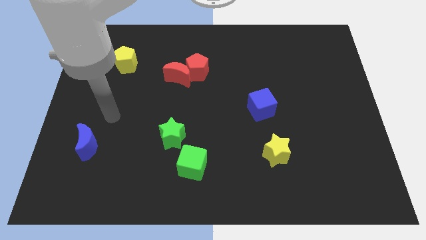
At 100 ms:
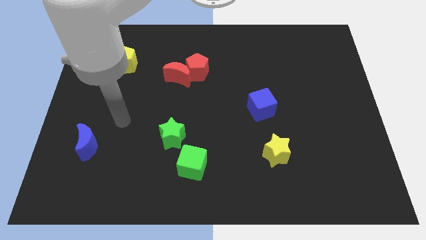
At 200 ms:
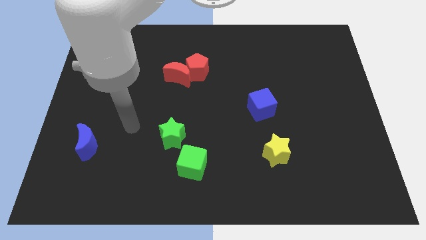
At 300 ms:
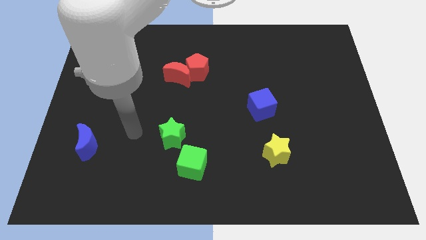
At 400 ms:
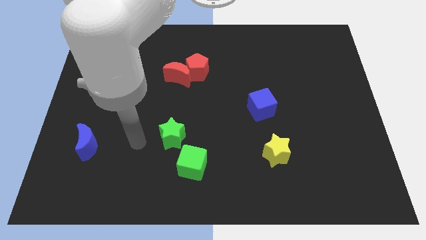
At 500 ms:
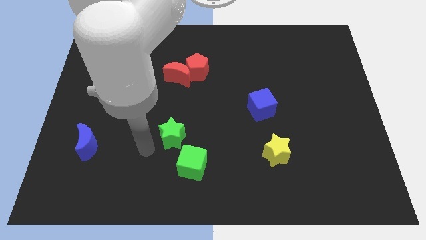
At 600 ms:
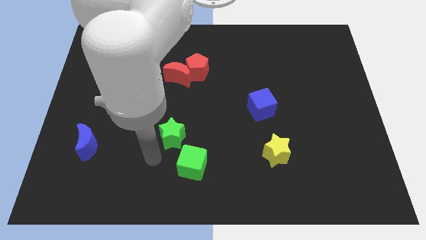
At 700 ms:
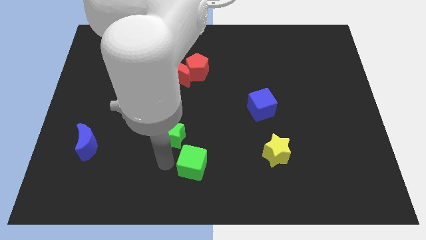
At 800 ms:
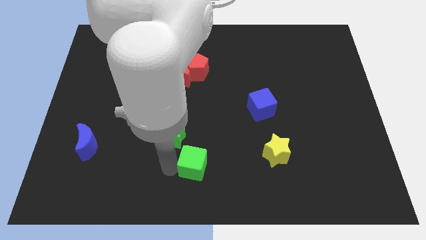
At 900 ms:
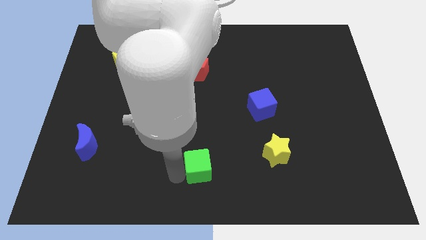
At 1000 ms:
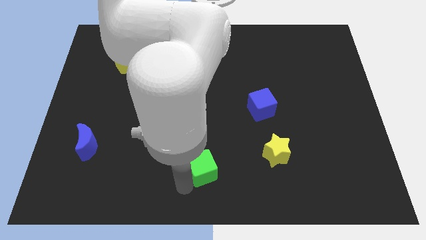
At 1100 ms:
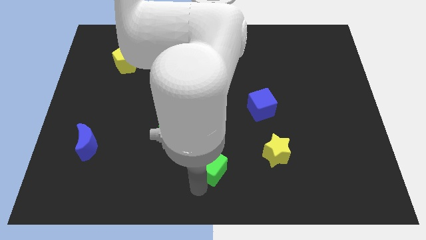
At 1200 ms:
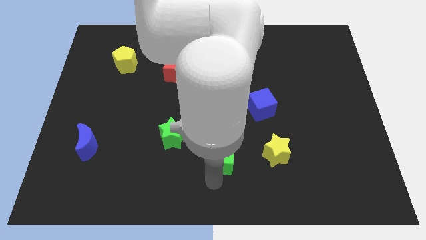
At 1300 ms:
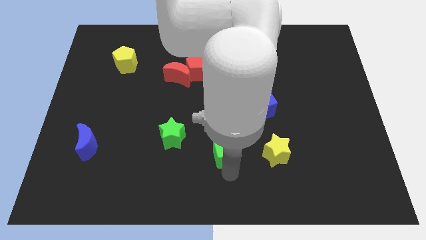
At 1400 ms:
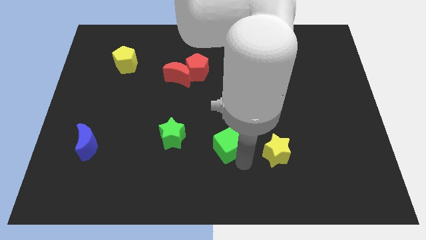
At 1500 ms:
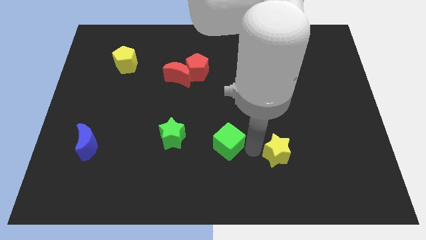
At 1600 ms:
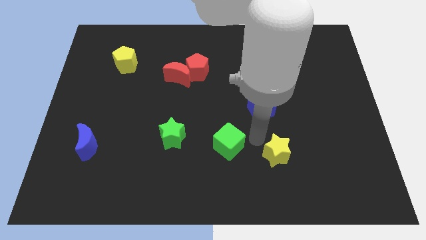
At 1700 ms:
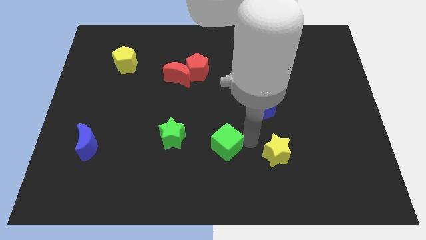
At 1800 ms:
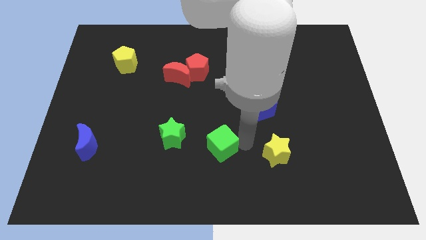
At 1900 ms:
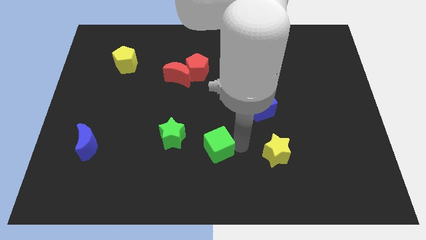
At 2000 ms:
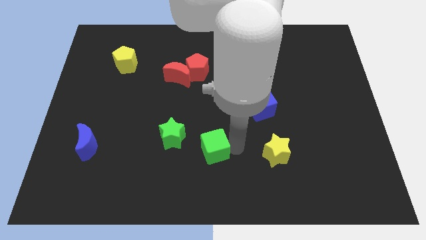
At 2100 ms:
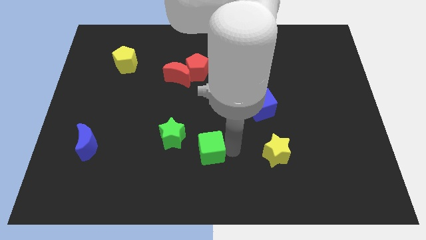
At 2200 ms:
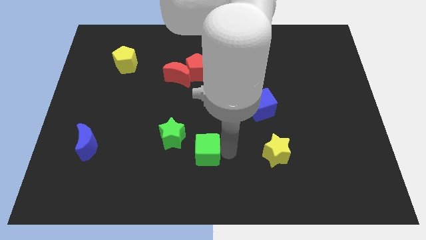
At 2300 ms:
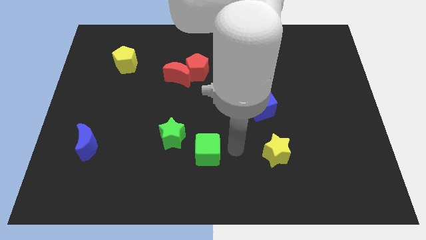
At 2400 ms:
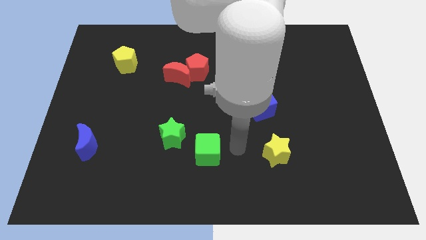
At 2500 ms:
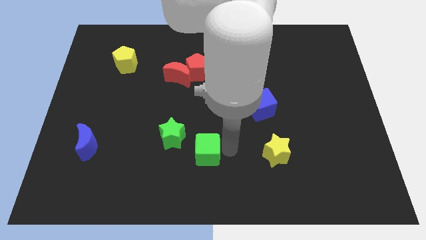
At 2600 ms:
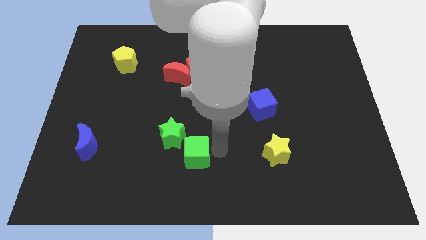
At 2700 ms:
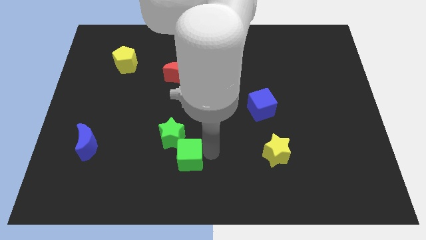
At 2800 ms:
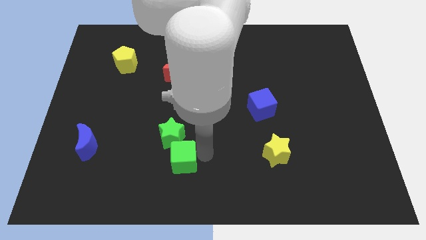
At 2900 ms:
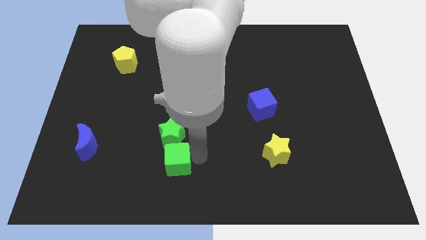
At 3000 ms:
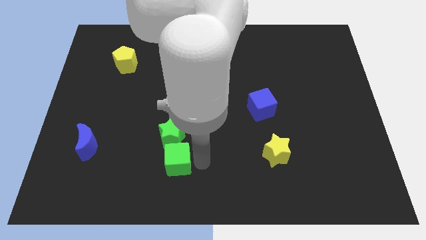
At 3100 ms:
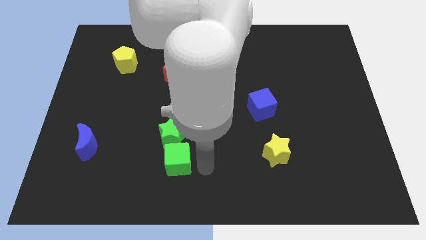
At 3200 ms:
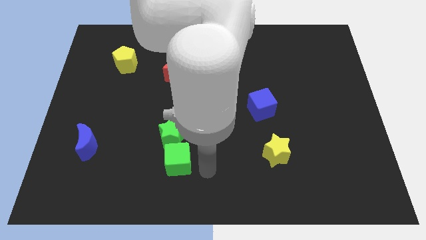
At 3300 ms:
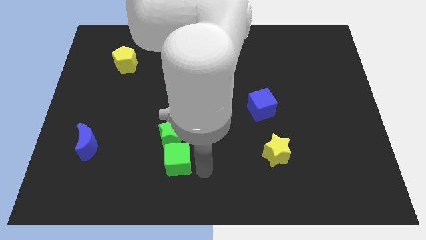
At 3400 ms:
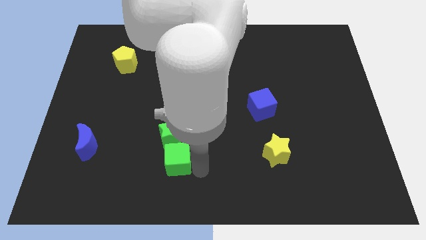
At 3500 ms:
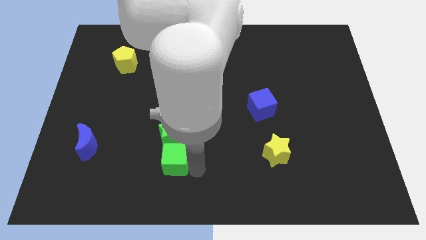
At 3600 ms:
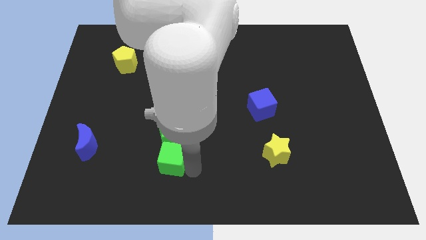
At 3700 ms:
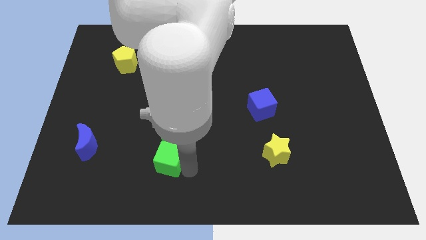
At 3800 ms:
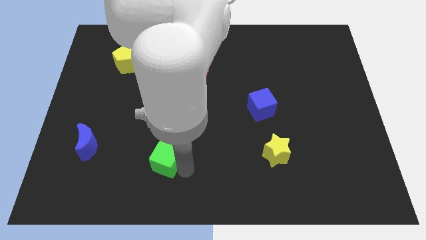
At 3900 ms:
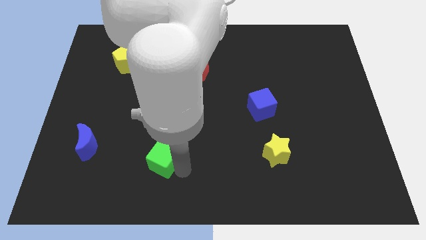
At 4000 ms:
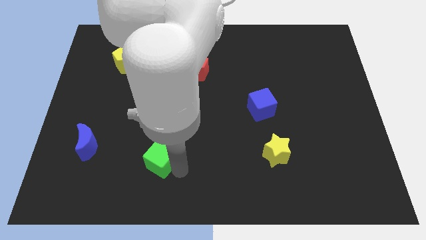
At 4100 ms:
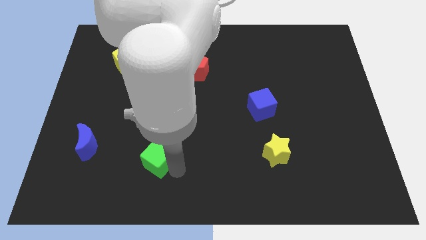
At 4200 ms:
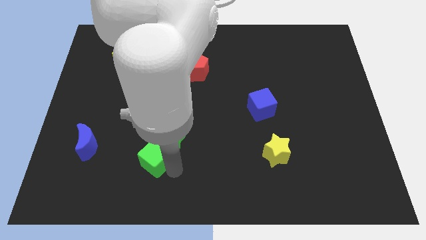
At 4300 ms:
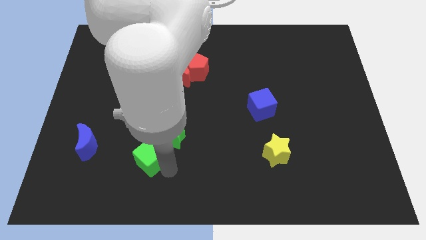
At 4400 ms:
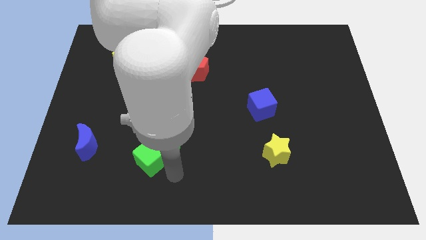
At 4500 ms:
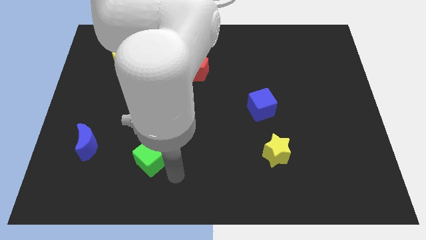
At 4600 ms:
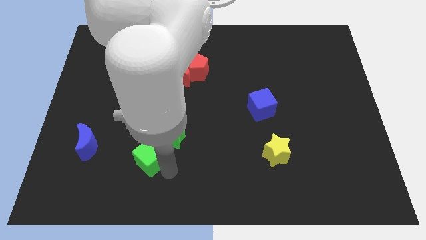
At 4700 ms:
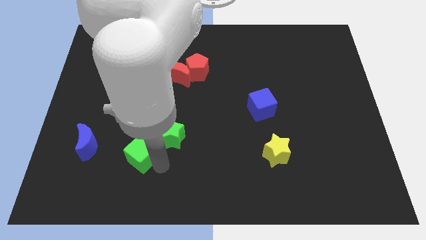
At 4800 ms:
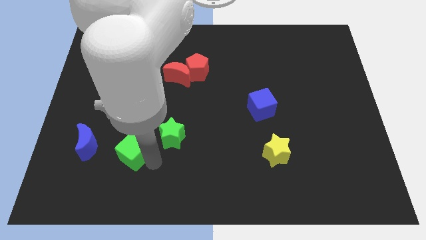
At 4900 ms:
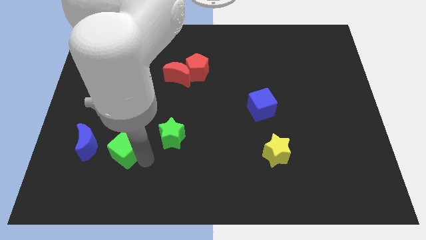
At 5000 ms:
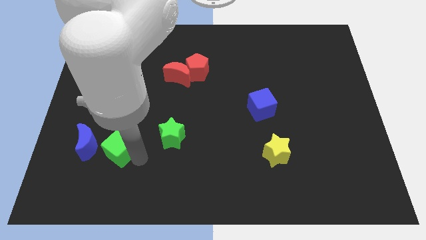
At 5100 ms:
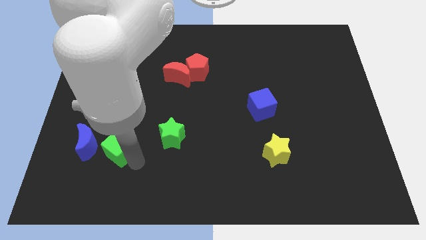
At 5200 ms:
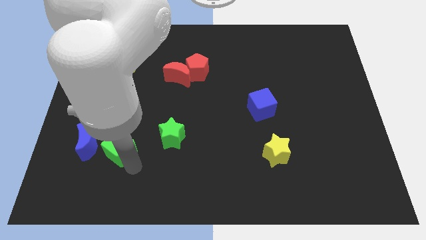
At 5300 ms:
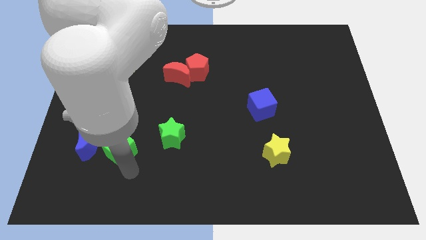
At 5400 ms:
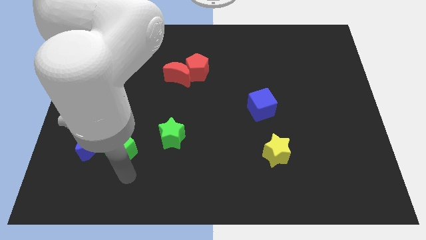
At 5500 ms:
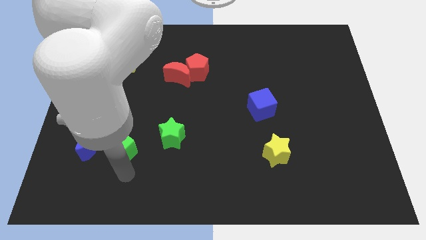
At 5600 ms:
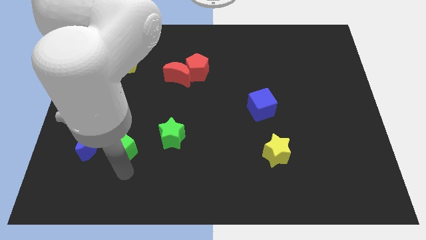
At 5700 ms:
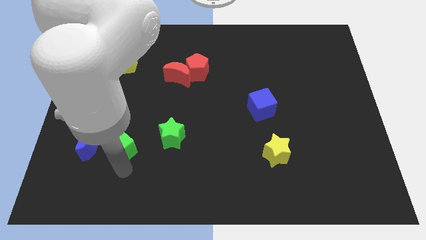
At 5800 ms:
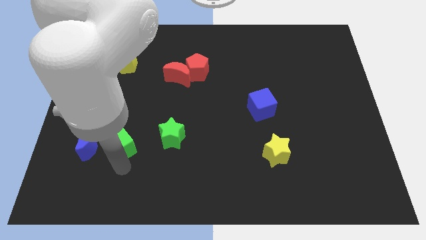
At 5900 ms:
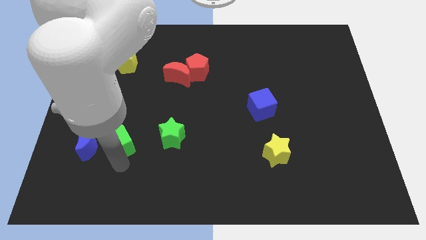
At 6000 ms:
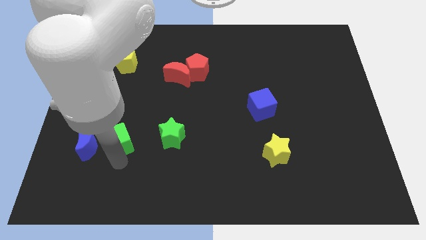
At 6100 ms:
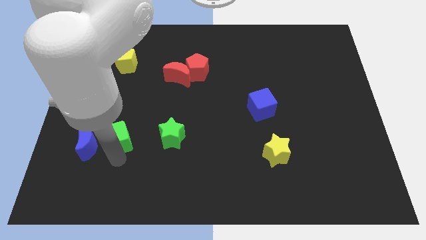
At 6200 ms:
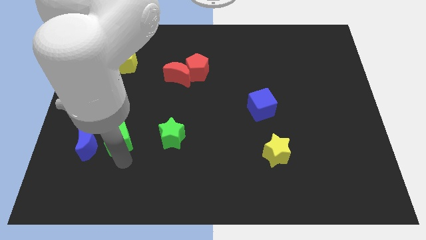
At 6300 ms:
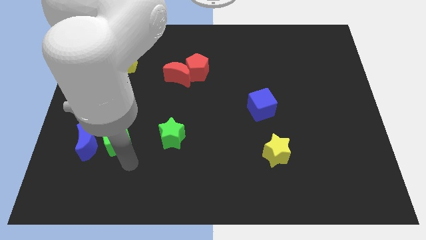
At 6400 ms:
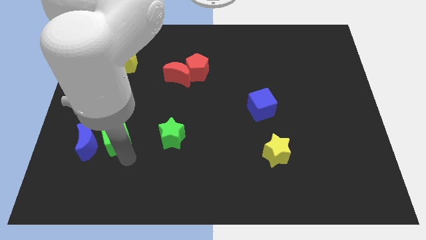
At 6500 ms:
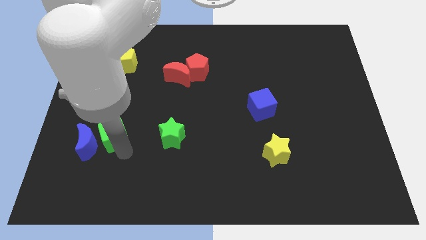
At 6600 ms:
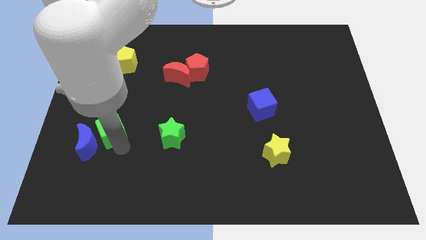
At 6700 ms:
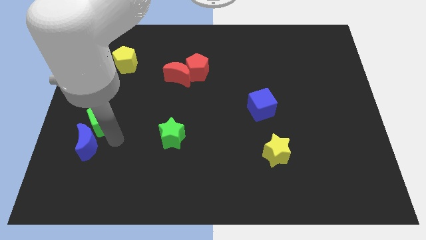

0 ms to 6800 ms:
push the green cube up and to the left

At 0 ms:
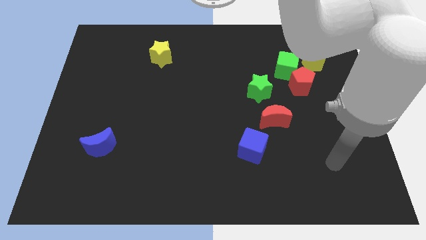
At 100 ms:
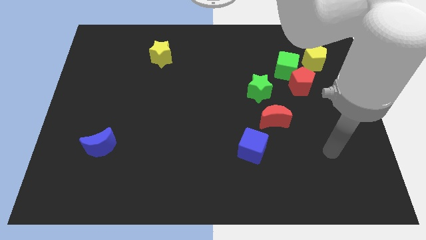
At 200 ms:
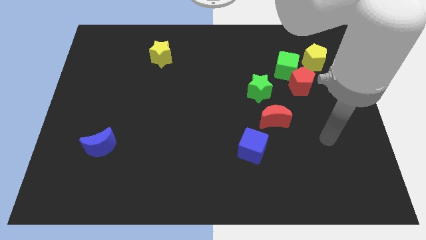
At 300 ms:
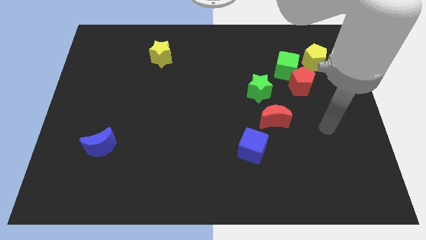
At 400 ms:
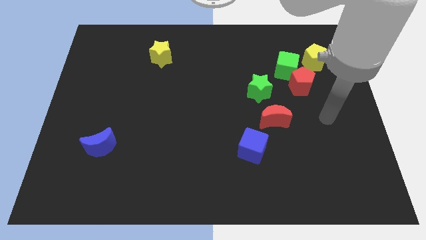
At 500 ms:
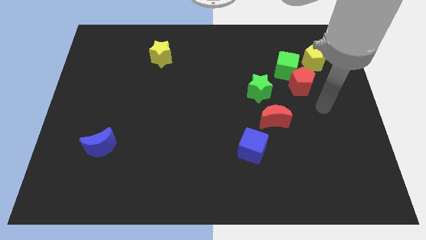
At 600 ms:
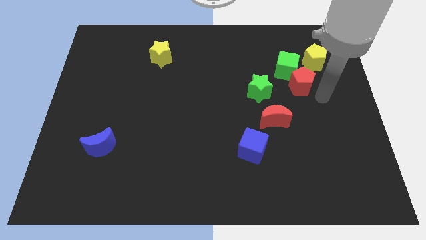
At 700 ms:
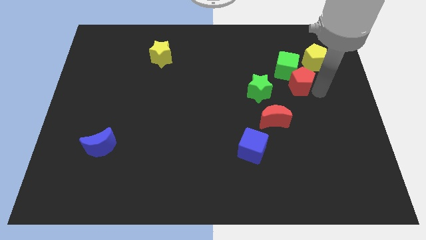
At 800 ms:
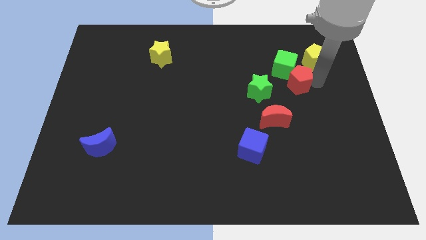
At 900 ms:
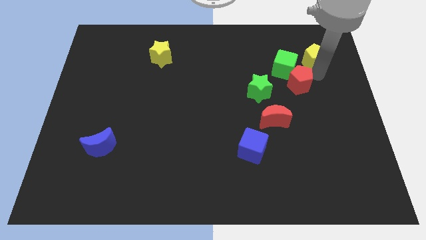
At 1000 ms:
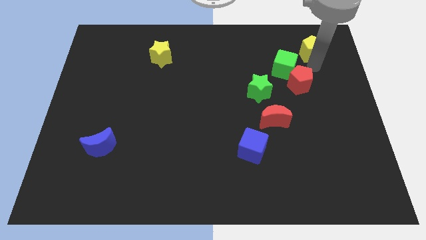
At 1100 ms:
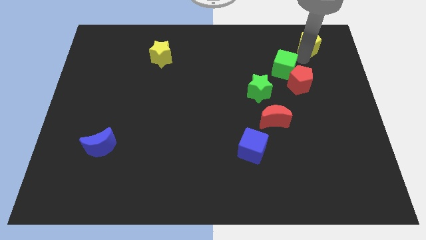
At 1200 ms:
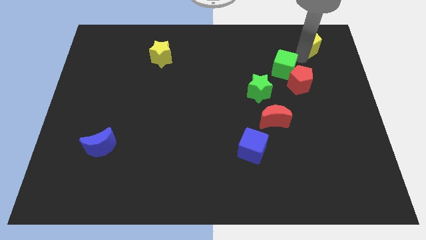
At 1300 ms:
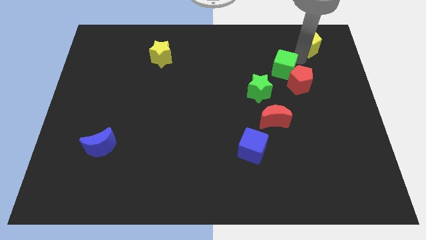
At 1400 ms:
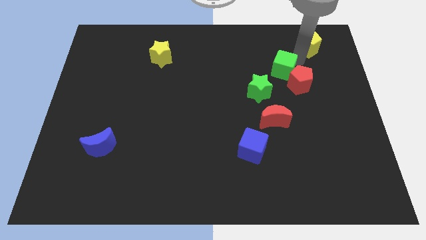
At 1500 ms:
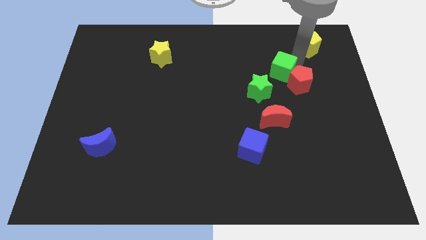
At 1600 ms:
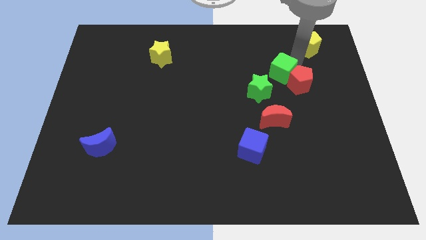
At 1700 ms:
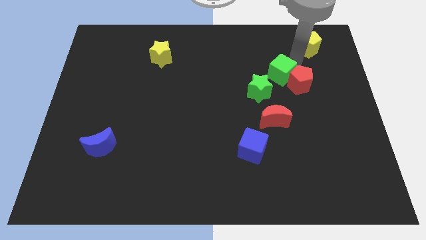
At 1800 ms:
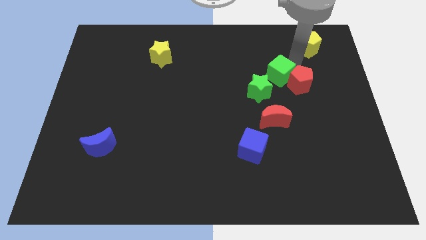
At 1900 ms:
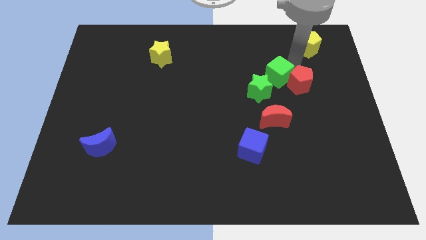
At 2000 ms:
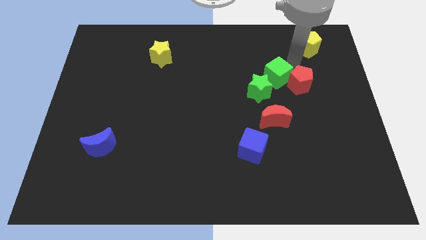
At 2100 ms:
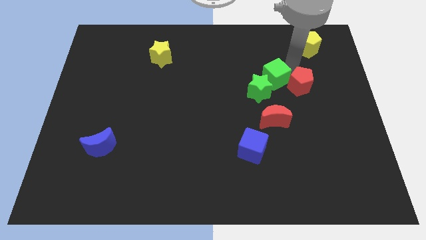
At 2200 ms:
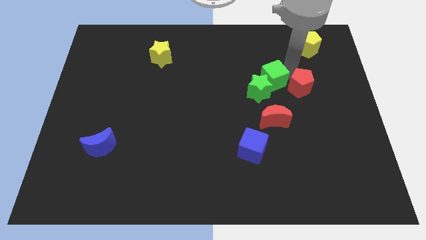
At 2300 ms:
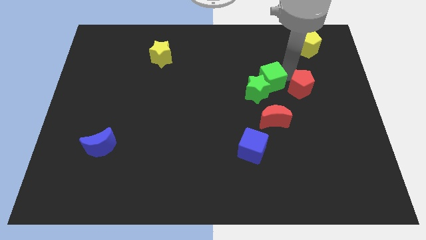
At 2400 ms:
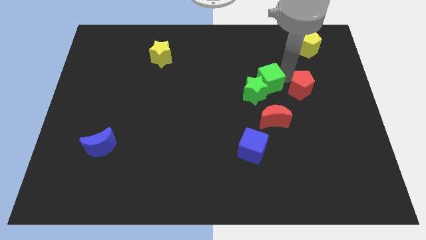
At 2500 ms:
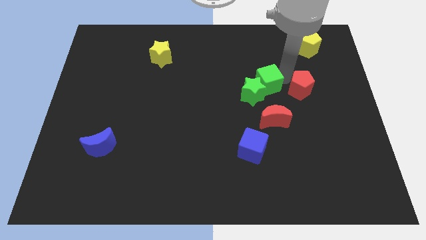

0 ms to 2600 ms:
slightly push the green cube downwards and then left
